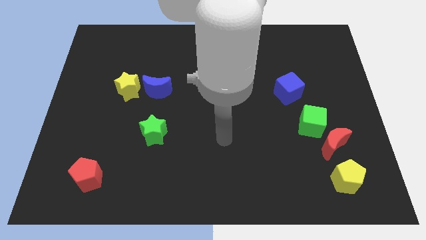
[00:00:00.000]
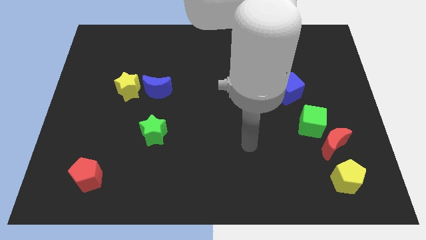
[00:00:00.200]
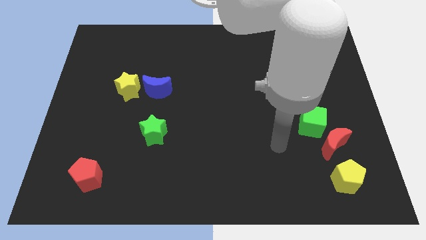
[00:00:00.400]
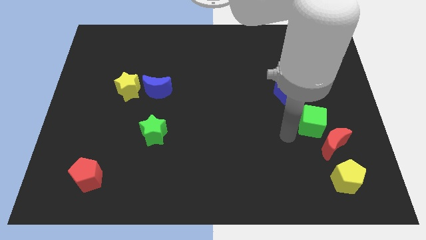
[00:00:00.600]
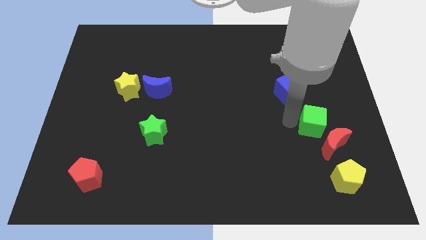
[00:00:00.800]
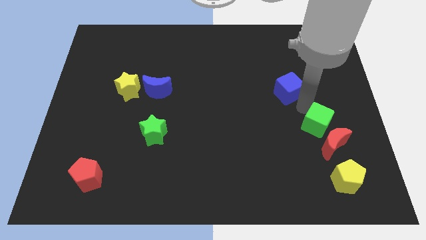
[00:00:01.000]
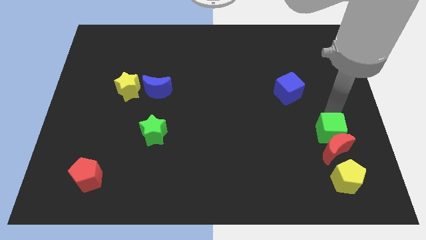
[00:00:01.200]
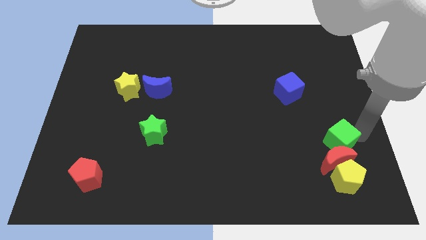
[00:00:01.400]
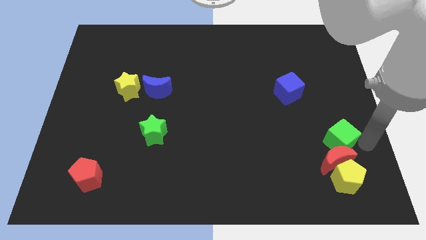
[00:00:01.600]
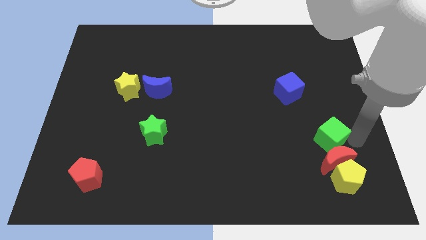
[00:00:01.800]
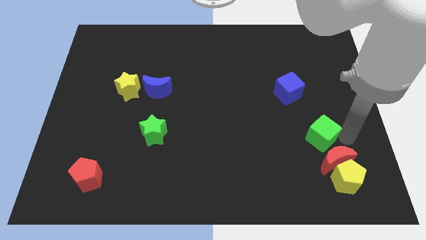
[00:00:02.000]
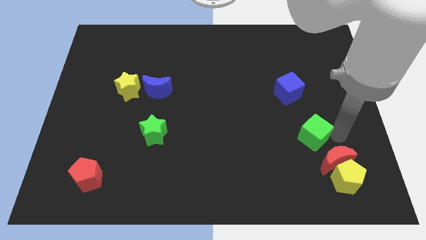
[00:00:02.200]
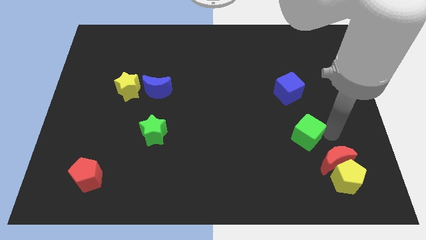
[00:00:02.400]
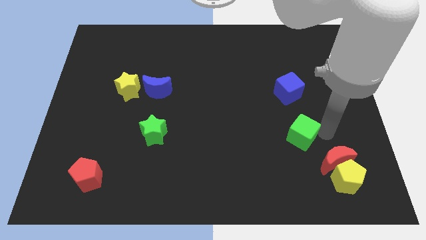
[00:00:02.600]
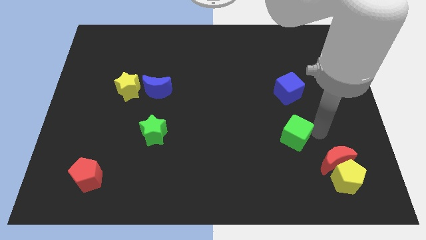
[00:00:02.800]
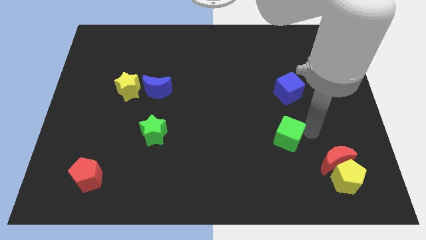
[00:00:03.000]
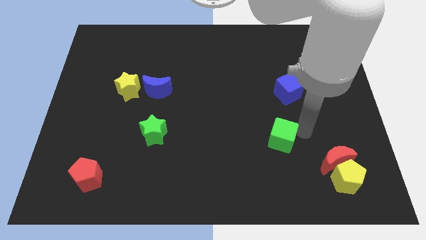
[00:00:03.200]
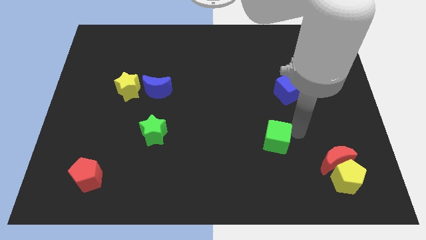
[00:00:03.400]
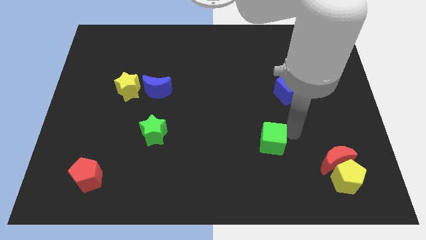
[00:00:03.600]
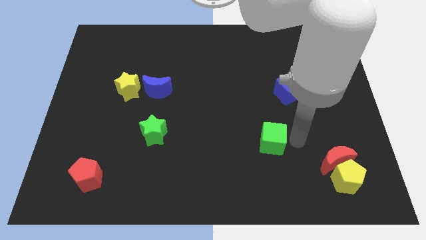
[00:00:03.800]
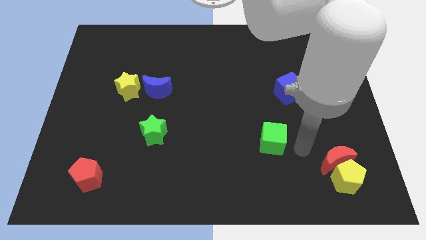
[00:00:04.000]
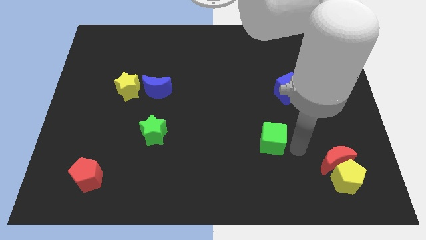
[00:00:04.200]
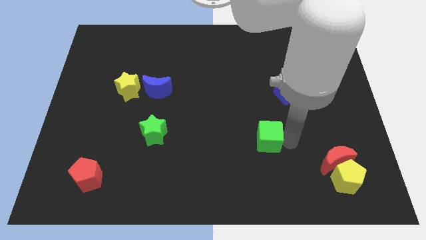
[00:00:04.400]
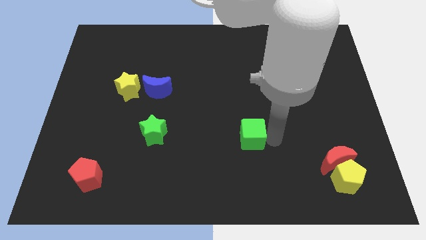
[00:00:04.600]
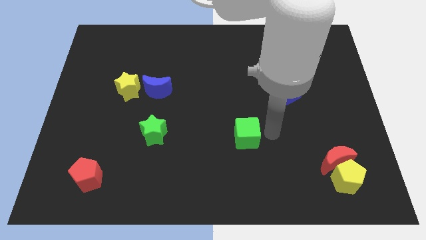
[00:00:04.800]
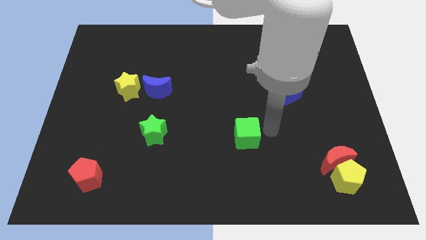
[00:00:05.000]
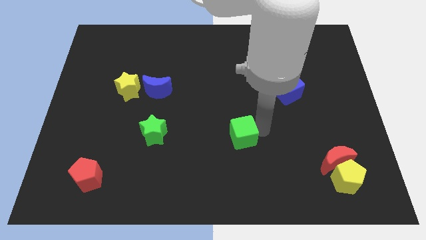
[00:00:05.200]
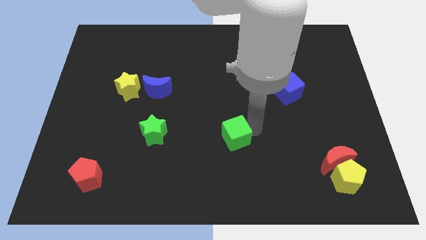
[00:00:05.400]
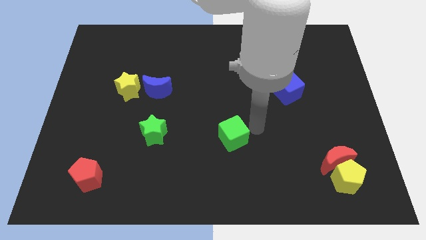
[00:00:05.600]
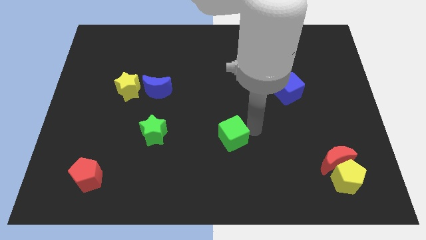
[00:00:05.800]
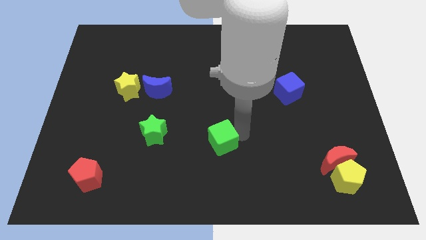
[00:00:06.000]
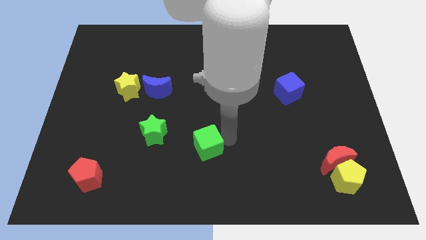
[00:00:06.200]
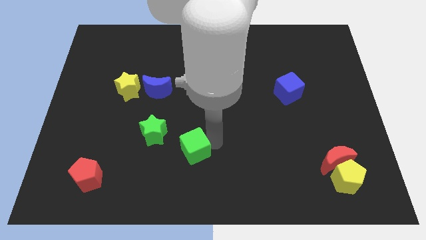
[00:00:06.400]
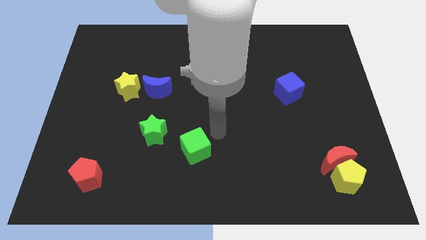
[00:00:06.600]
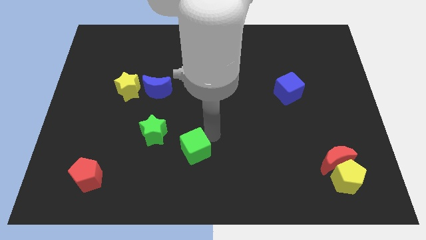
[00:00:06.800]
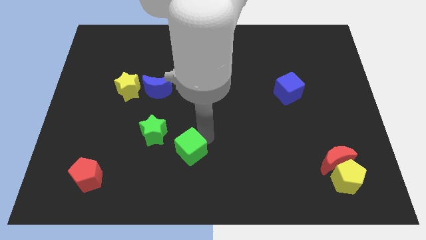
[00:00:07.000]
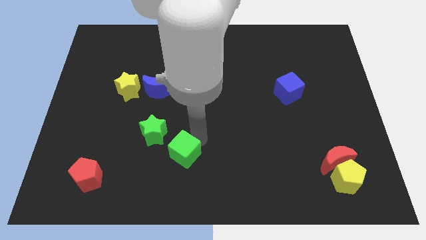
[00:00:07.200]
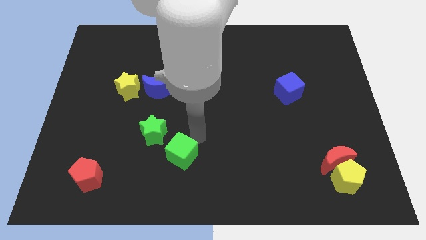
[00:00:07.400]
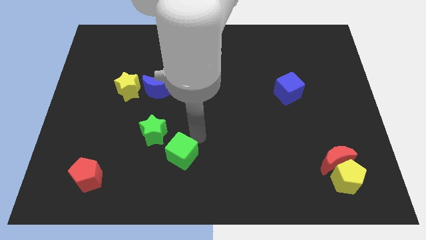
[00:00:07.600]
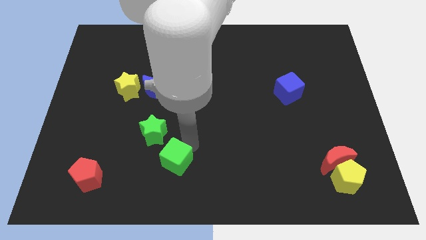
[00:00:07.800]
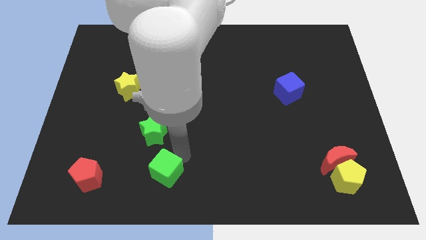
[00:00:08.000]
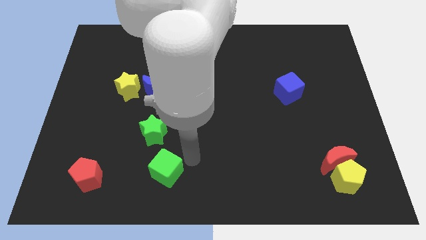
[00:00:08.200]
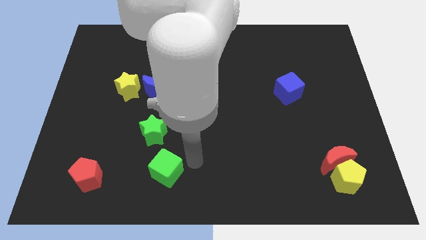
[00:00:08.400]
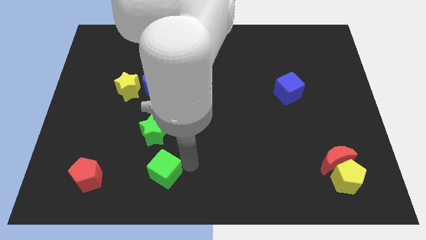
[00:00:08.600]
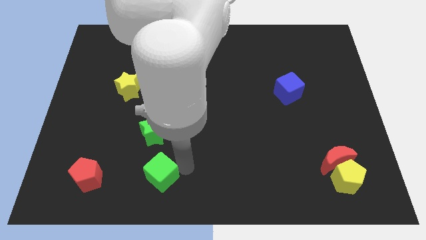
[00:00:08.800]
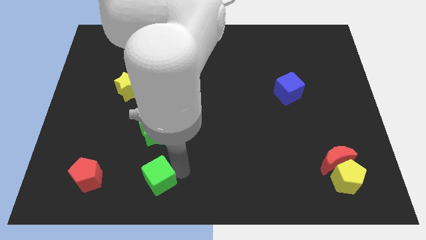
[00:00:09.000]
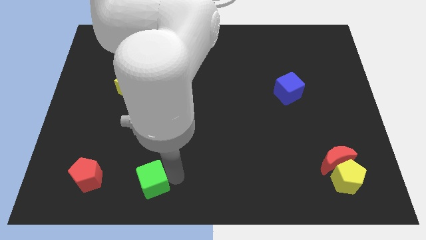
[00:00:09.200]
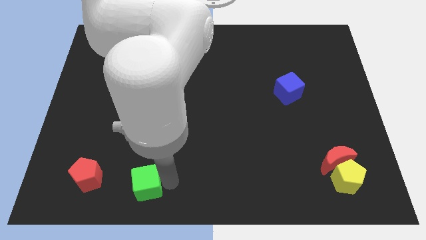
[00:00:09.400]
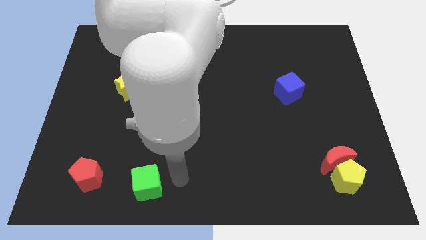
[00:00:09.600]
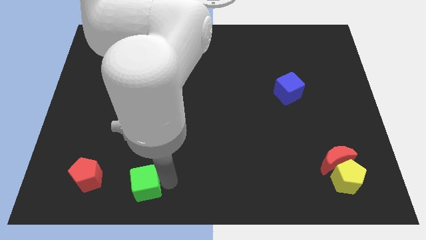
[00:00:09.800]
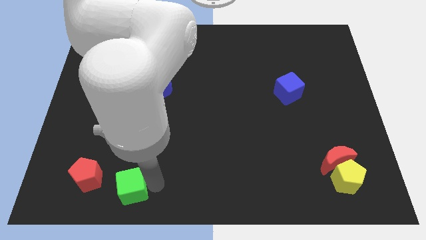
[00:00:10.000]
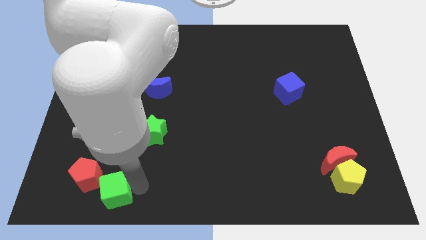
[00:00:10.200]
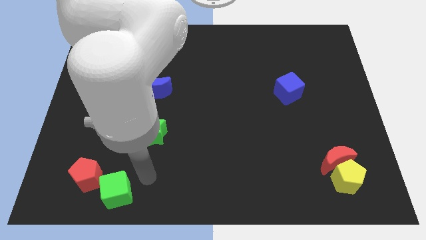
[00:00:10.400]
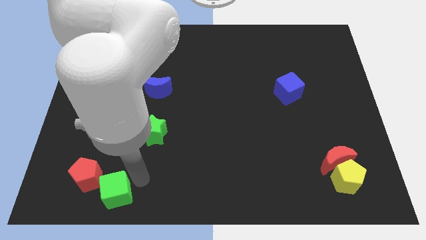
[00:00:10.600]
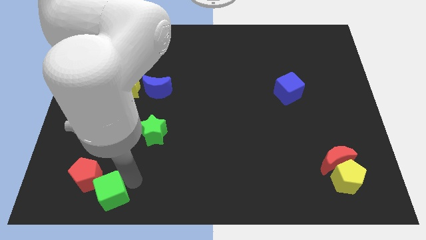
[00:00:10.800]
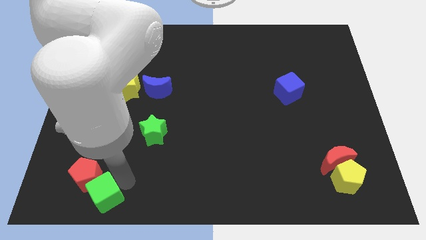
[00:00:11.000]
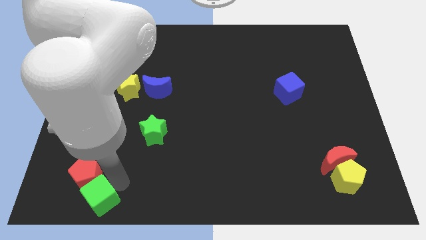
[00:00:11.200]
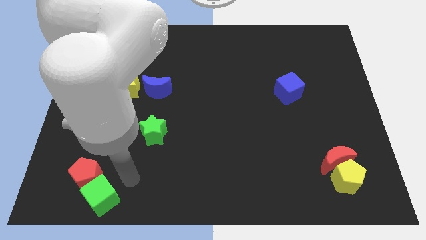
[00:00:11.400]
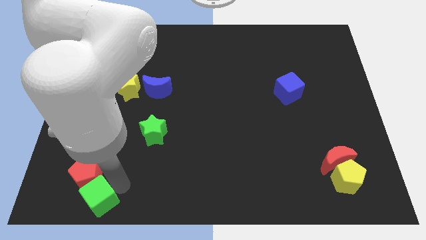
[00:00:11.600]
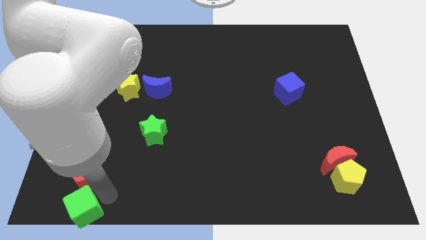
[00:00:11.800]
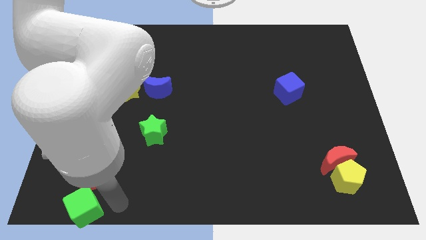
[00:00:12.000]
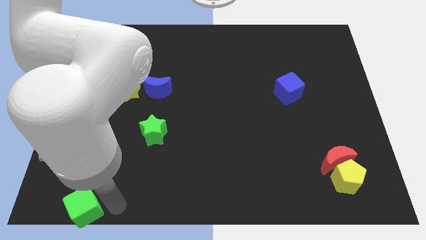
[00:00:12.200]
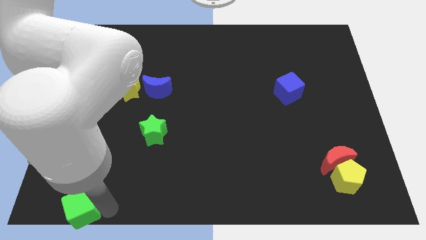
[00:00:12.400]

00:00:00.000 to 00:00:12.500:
slide the green cube to the bottom left of the board

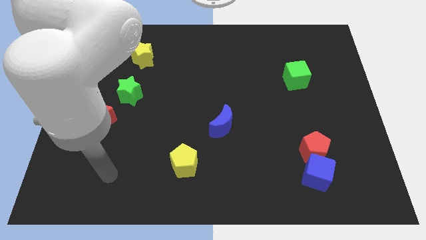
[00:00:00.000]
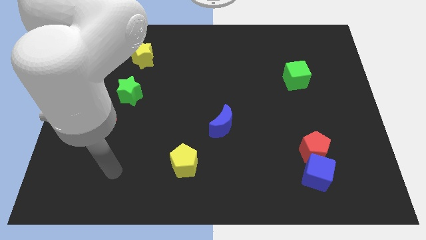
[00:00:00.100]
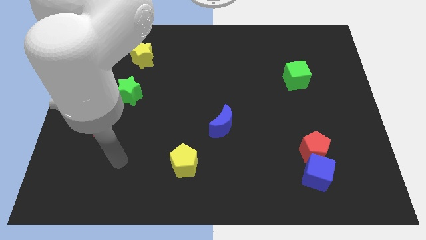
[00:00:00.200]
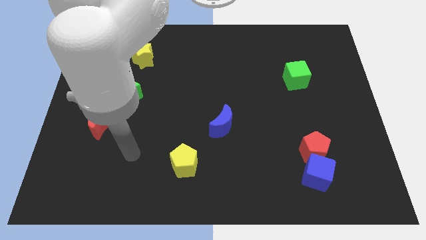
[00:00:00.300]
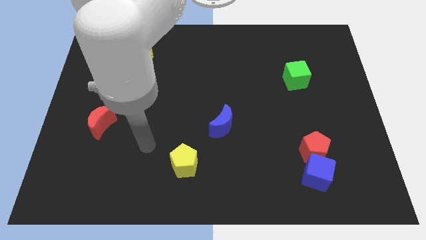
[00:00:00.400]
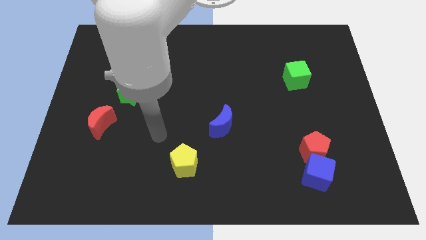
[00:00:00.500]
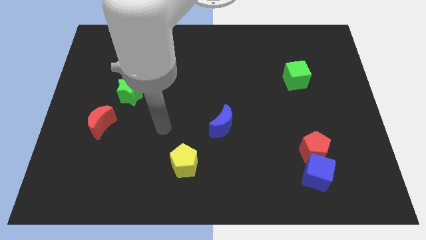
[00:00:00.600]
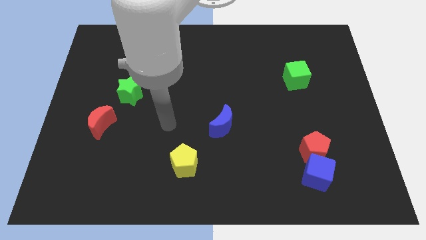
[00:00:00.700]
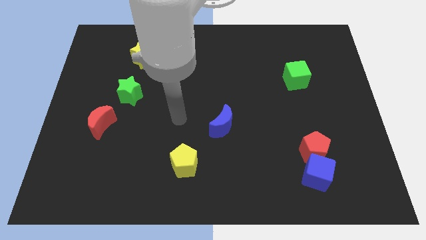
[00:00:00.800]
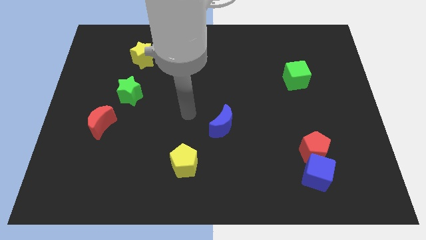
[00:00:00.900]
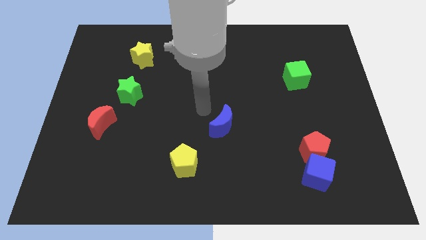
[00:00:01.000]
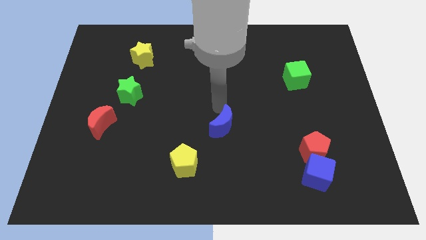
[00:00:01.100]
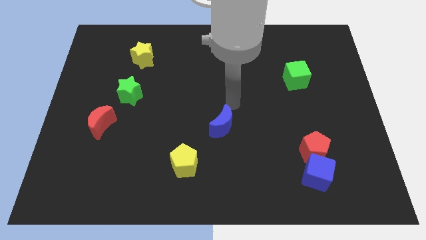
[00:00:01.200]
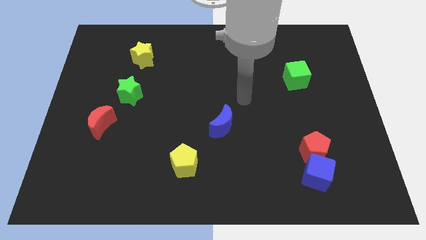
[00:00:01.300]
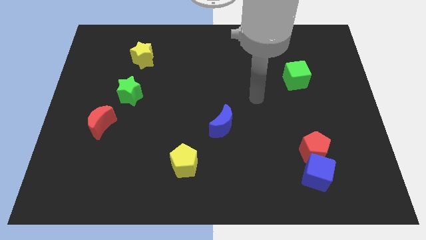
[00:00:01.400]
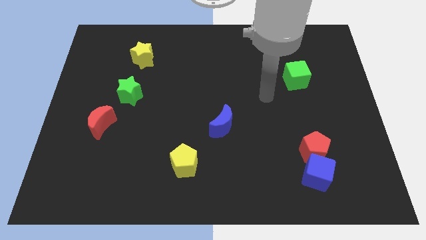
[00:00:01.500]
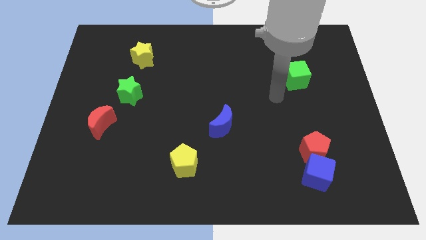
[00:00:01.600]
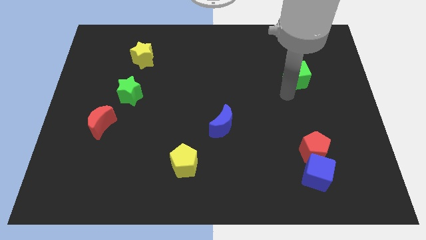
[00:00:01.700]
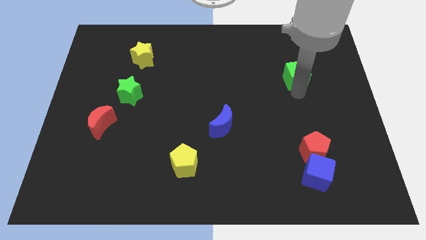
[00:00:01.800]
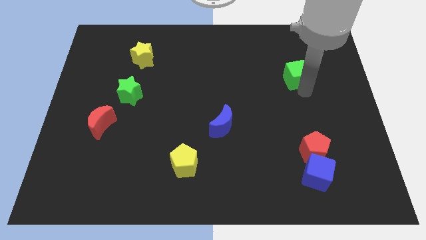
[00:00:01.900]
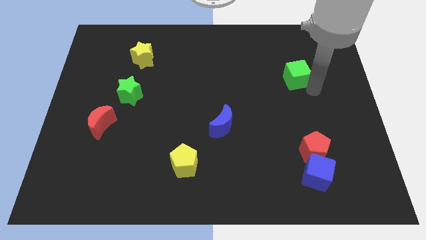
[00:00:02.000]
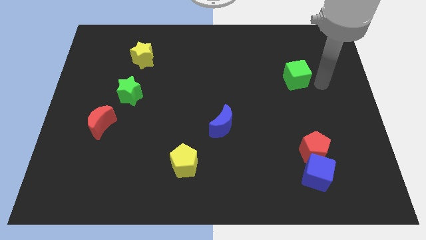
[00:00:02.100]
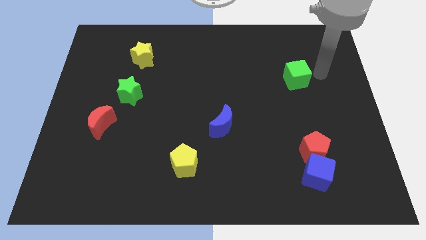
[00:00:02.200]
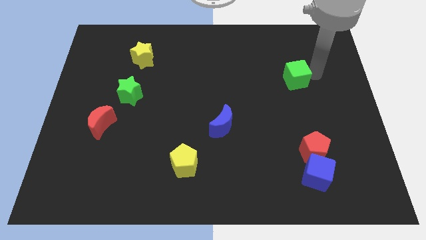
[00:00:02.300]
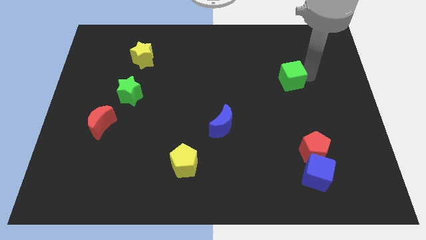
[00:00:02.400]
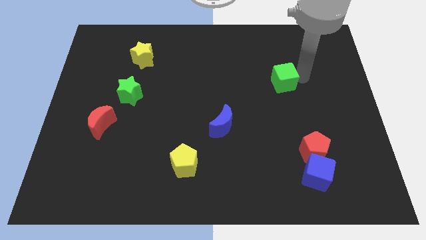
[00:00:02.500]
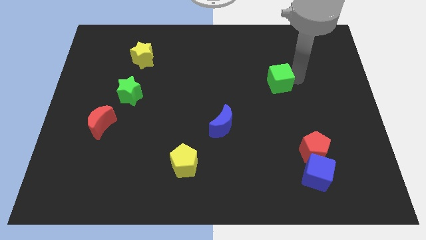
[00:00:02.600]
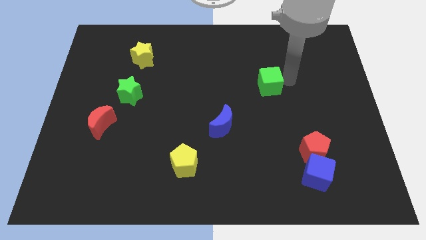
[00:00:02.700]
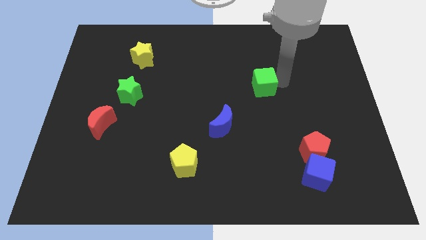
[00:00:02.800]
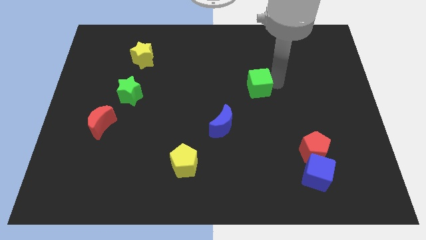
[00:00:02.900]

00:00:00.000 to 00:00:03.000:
slide the green cube to the center
